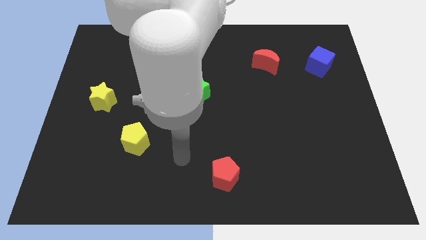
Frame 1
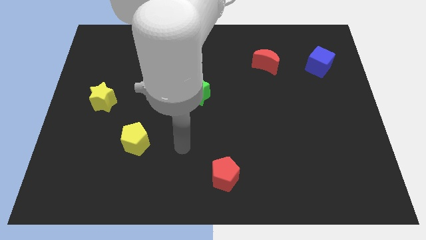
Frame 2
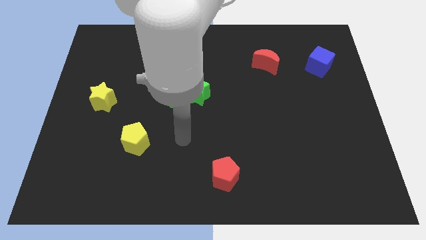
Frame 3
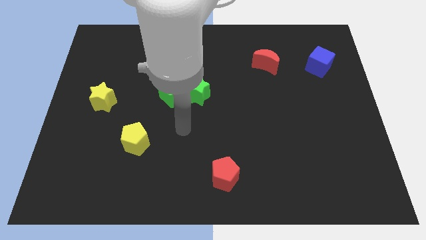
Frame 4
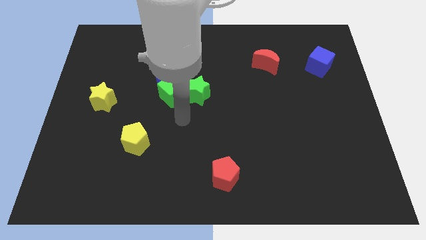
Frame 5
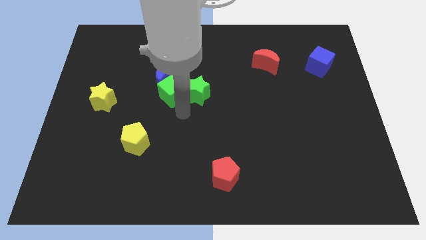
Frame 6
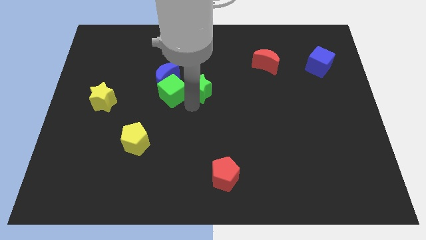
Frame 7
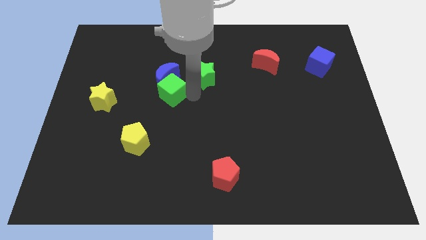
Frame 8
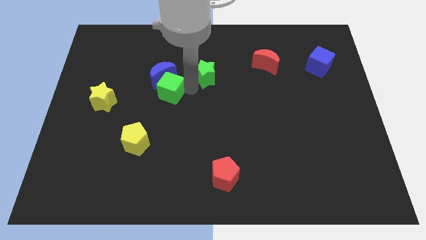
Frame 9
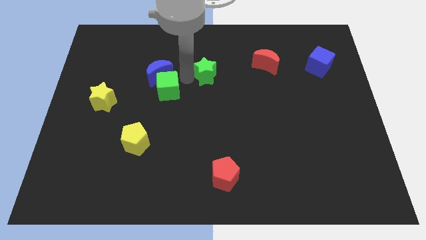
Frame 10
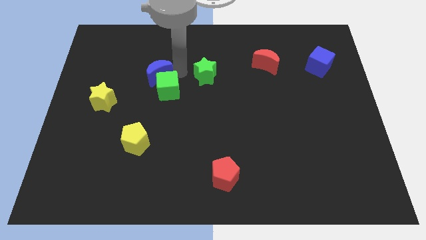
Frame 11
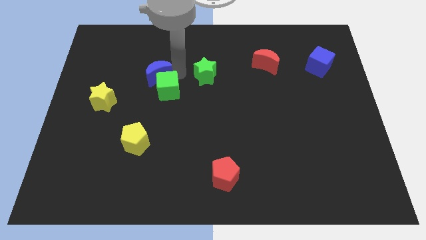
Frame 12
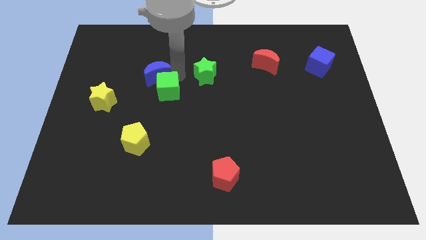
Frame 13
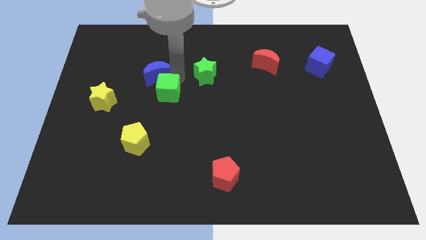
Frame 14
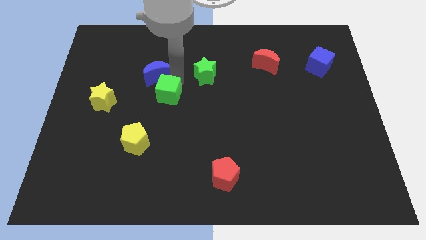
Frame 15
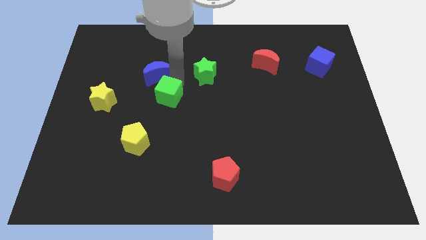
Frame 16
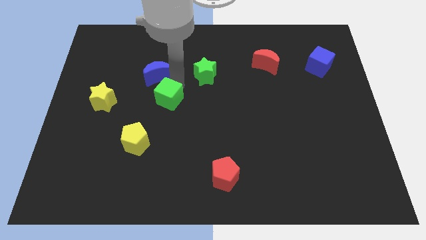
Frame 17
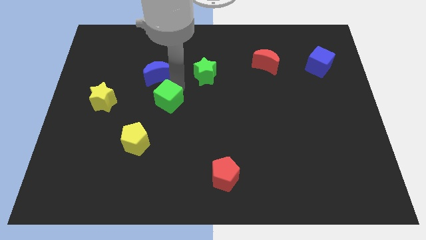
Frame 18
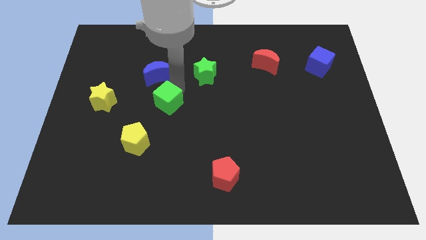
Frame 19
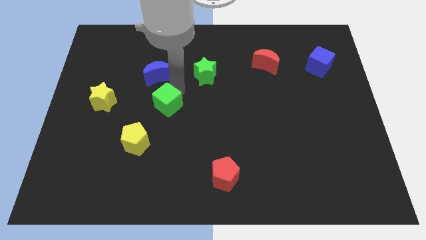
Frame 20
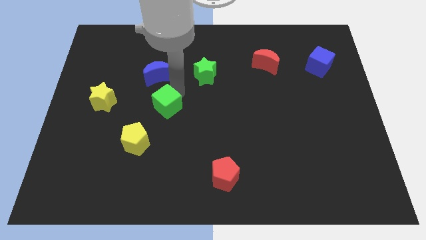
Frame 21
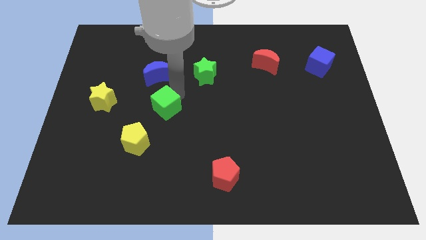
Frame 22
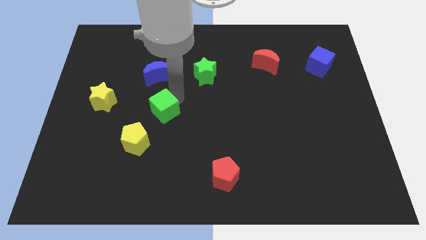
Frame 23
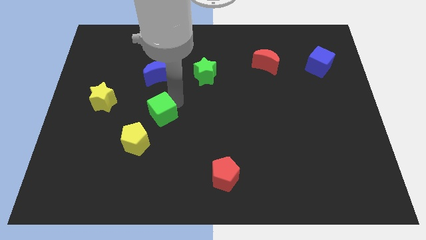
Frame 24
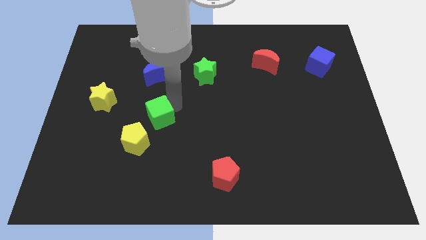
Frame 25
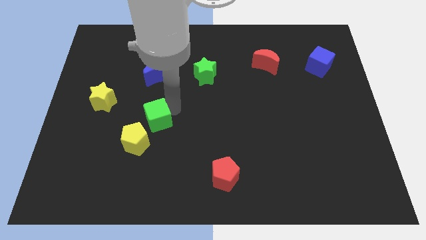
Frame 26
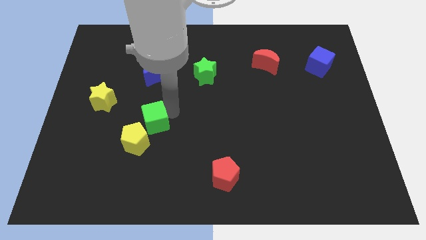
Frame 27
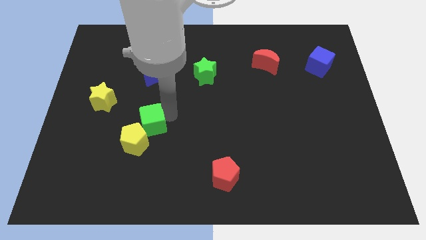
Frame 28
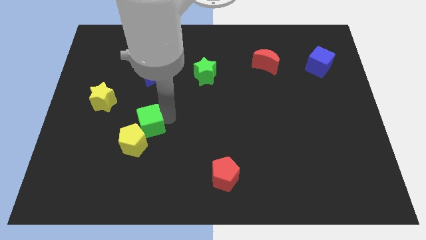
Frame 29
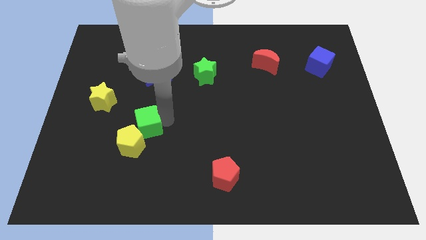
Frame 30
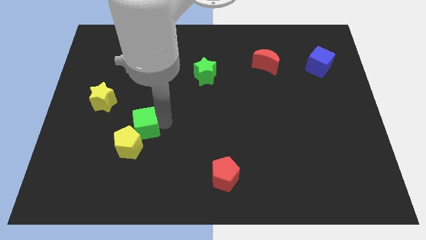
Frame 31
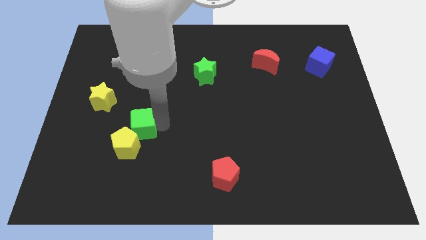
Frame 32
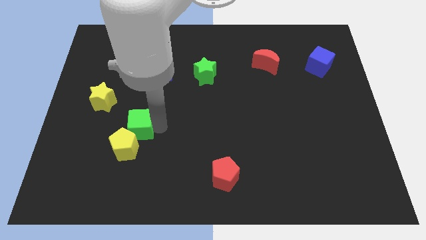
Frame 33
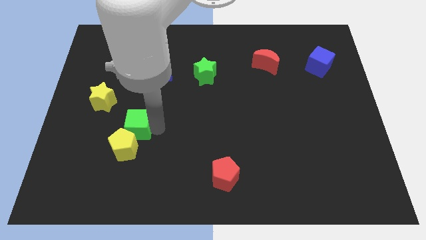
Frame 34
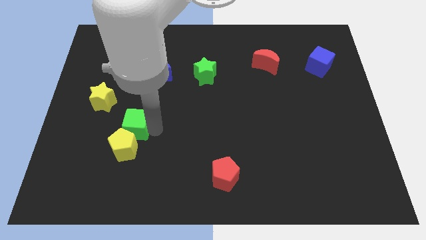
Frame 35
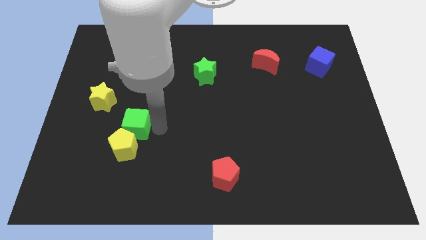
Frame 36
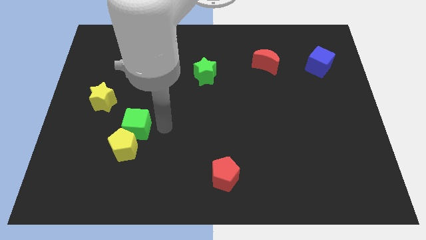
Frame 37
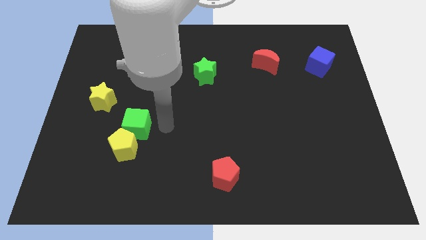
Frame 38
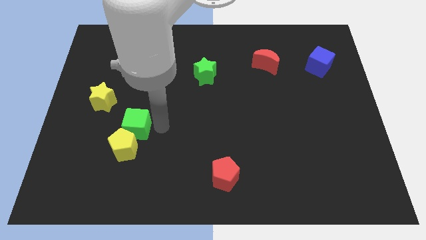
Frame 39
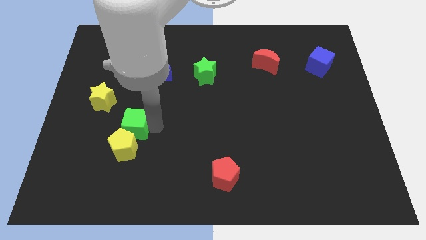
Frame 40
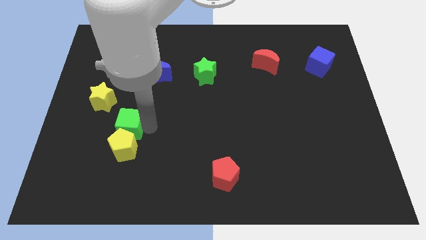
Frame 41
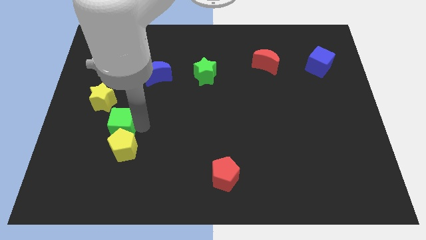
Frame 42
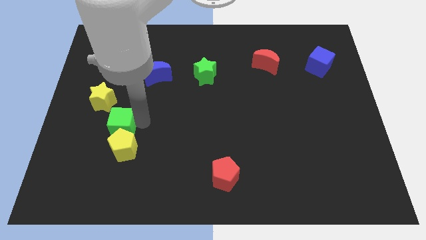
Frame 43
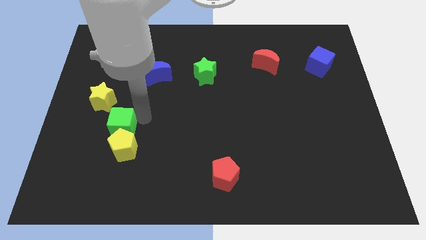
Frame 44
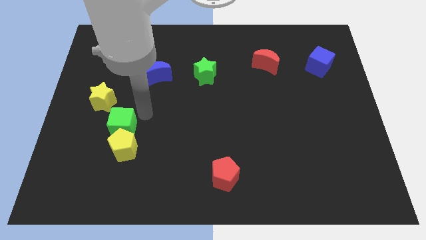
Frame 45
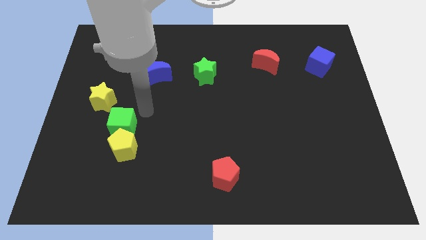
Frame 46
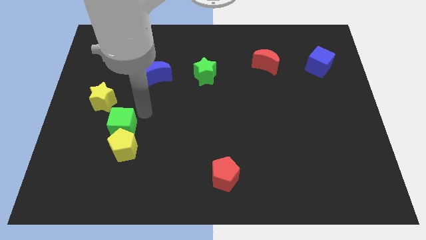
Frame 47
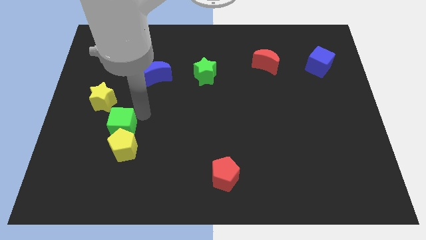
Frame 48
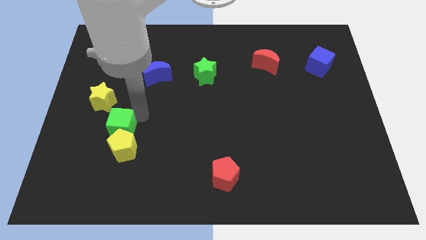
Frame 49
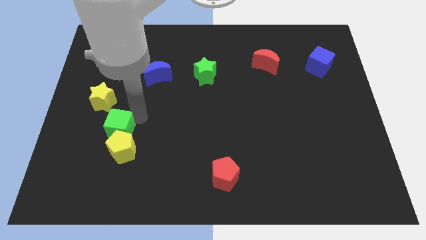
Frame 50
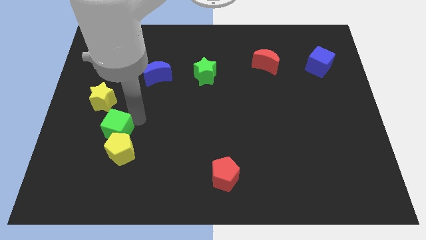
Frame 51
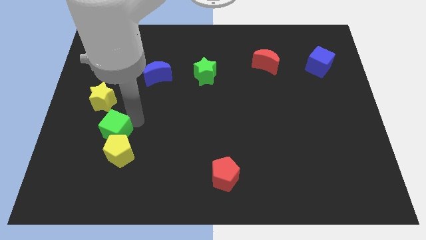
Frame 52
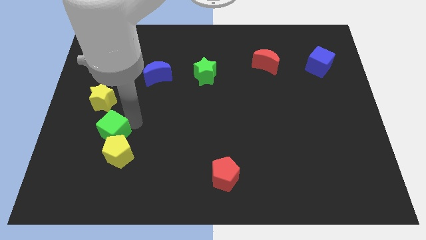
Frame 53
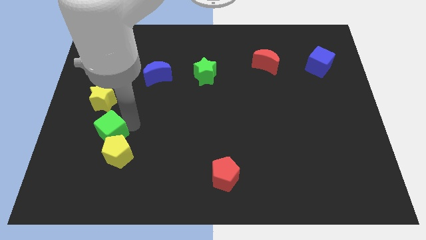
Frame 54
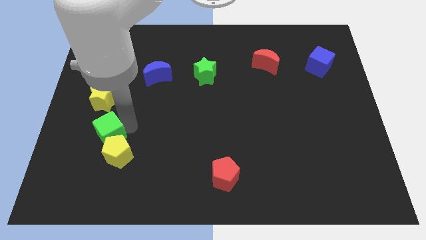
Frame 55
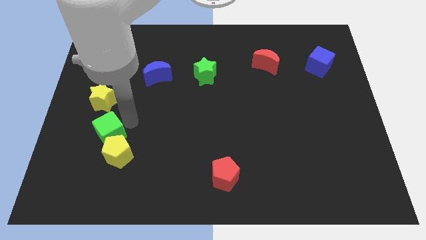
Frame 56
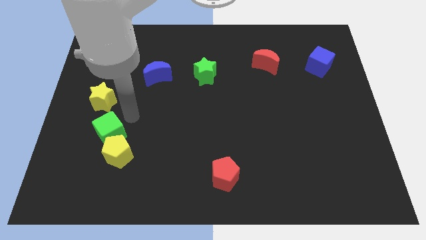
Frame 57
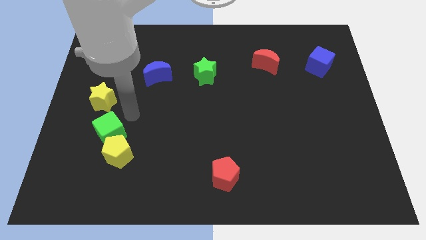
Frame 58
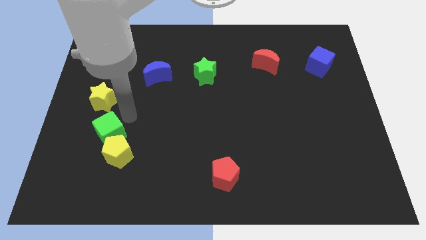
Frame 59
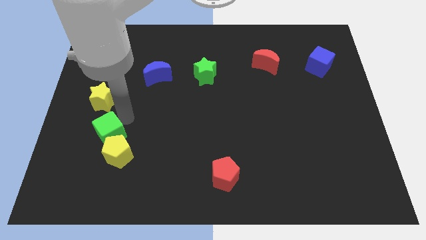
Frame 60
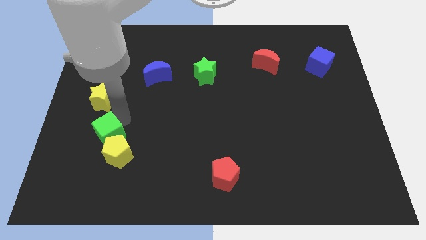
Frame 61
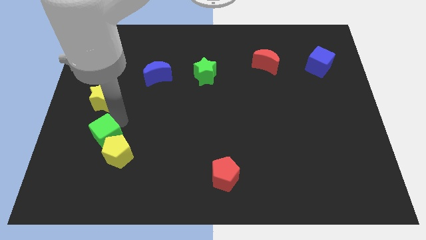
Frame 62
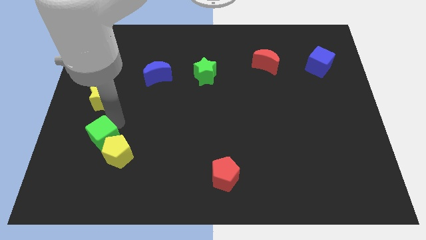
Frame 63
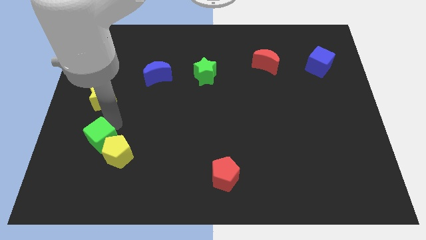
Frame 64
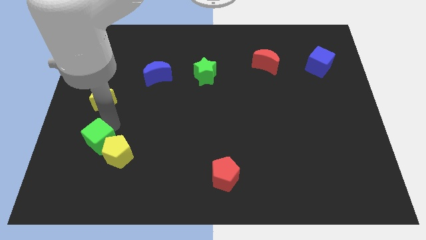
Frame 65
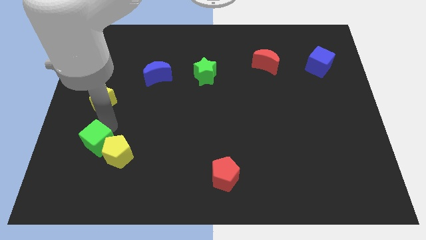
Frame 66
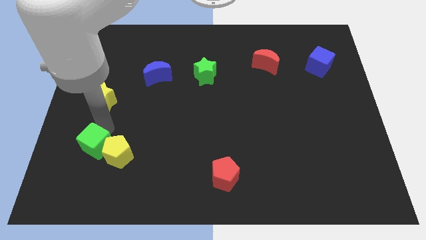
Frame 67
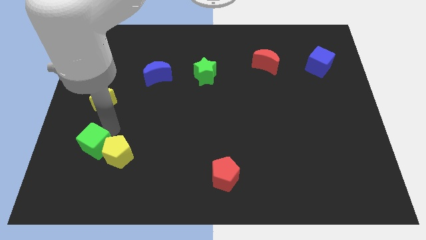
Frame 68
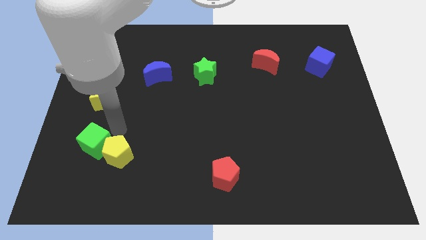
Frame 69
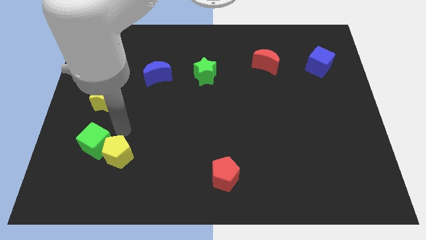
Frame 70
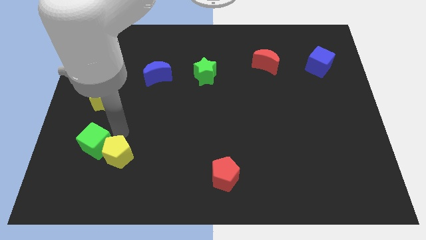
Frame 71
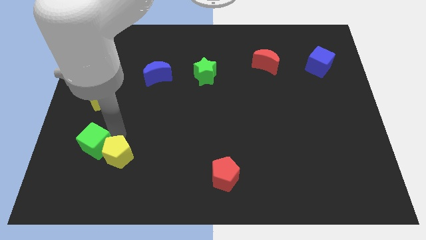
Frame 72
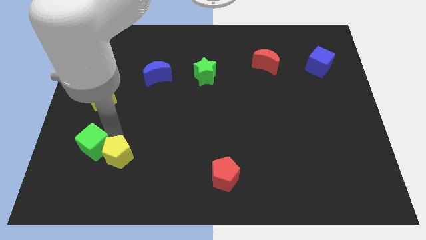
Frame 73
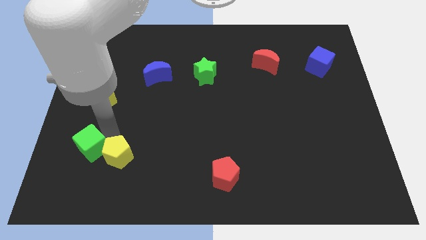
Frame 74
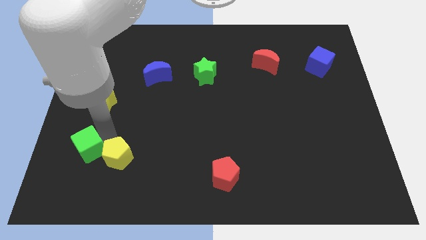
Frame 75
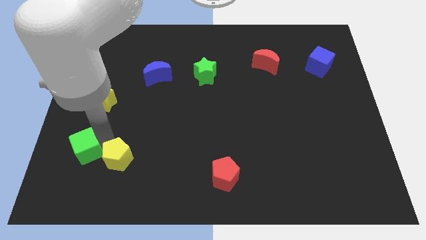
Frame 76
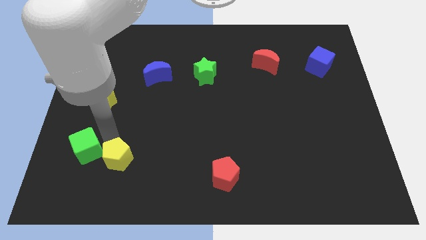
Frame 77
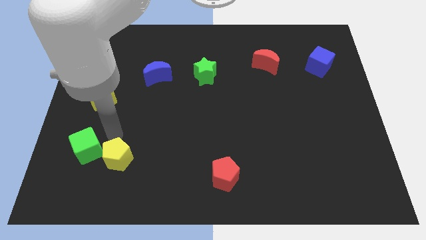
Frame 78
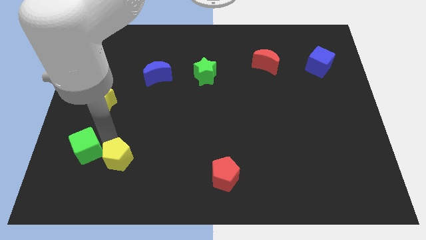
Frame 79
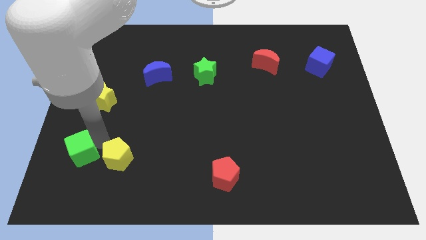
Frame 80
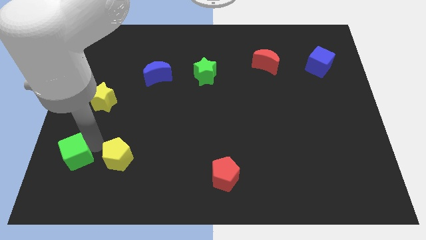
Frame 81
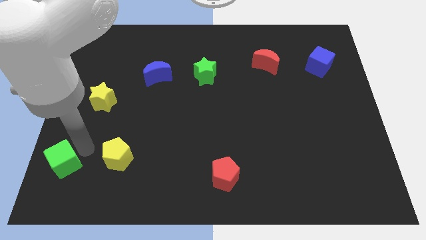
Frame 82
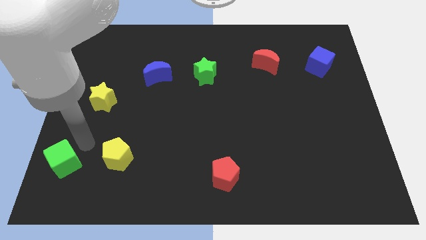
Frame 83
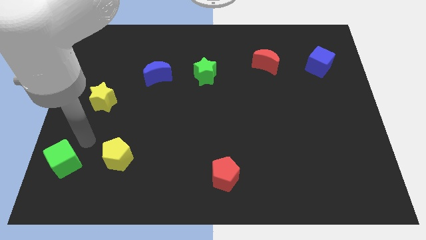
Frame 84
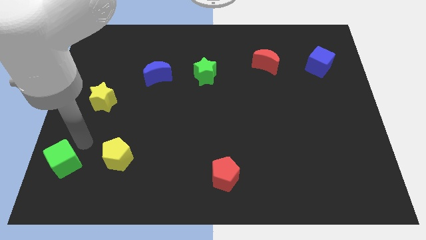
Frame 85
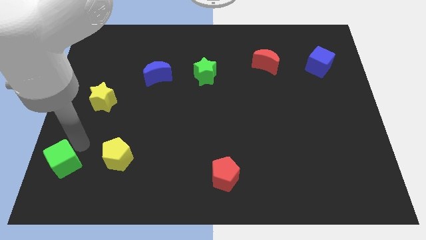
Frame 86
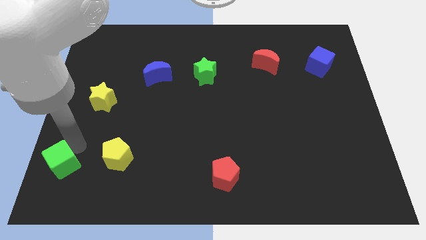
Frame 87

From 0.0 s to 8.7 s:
put the green cube to the bottom left
